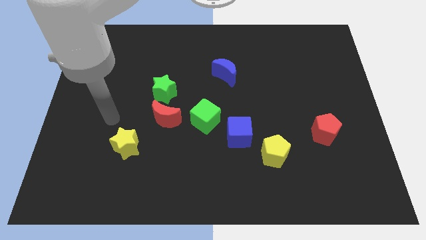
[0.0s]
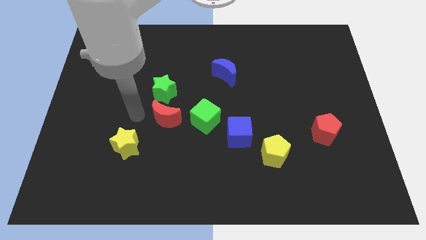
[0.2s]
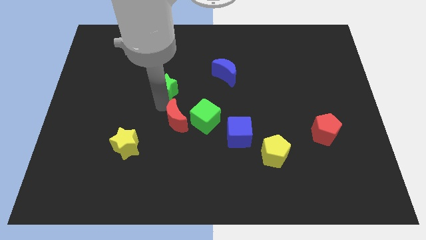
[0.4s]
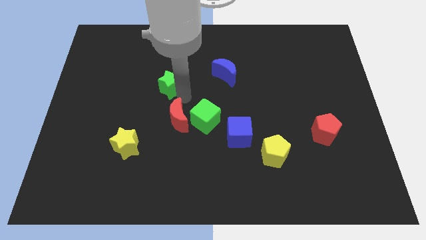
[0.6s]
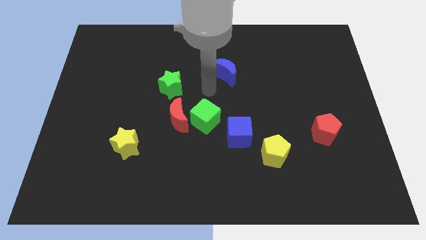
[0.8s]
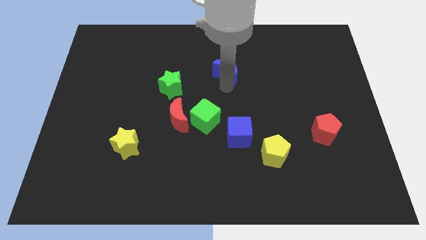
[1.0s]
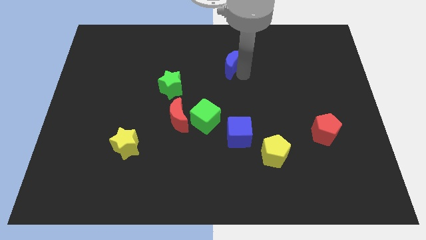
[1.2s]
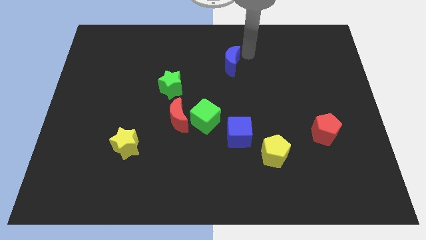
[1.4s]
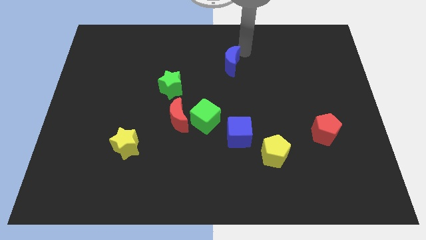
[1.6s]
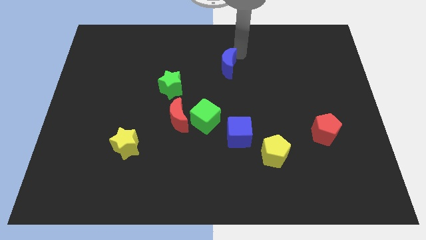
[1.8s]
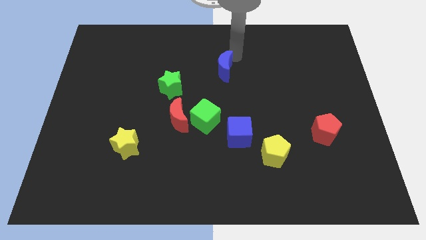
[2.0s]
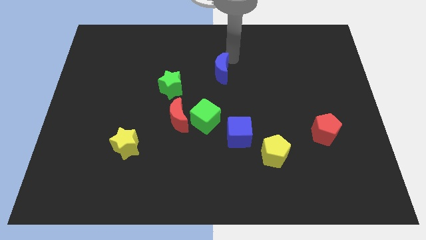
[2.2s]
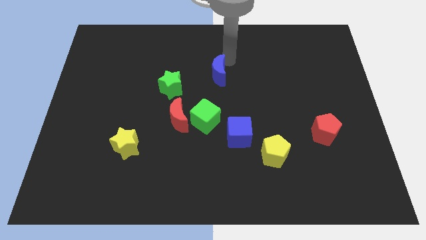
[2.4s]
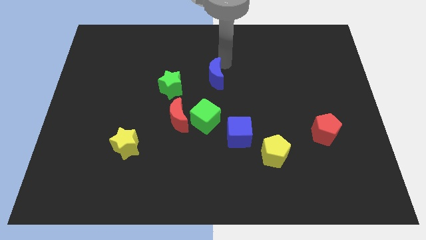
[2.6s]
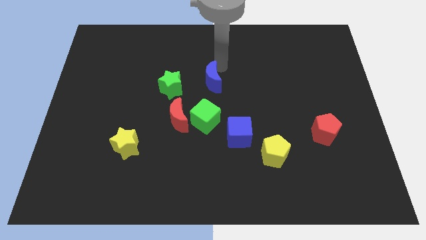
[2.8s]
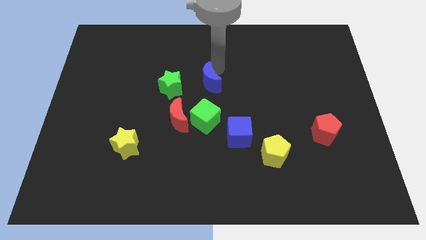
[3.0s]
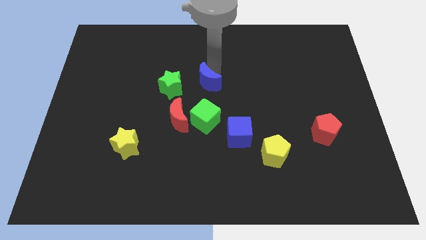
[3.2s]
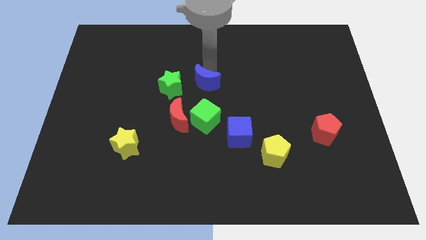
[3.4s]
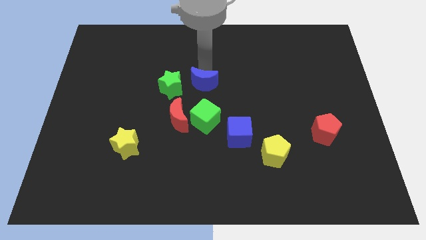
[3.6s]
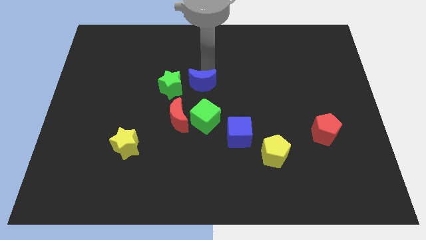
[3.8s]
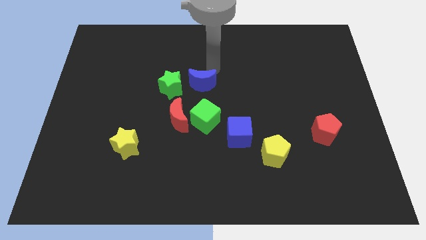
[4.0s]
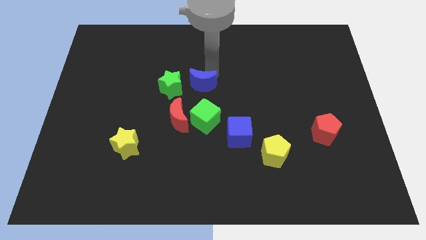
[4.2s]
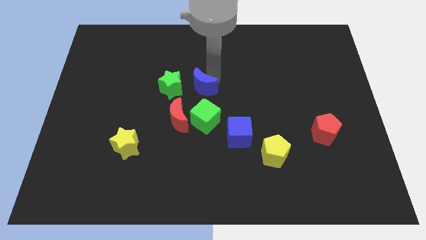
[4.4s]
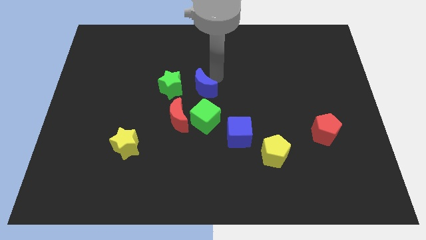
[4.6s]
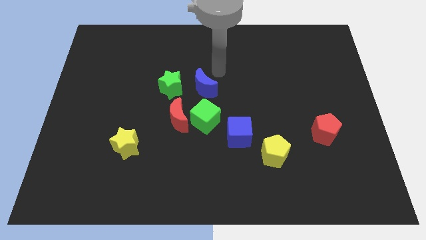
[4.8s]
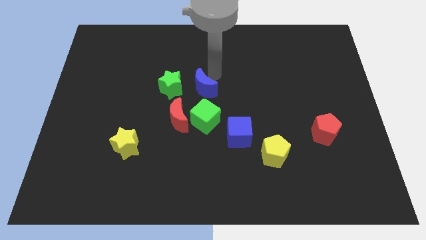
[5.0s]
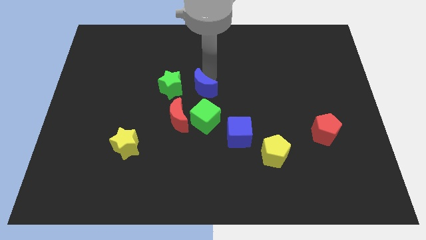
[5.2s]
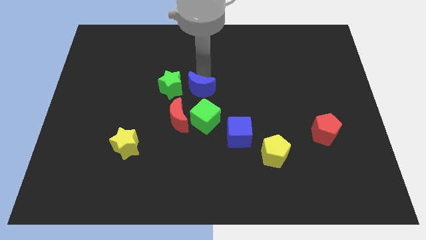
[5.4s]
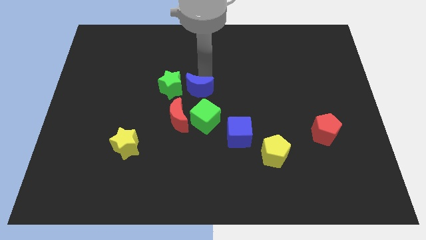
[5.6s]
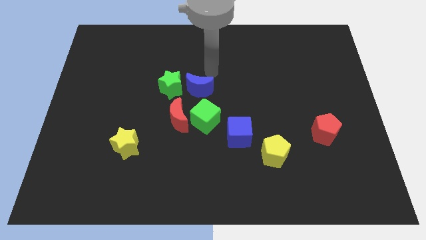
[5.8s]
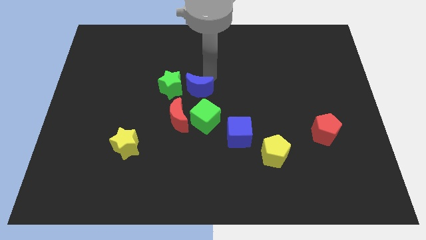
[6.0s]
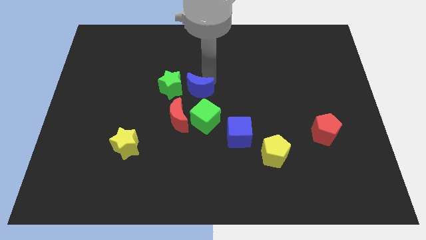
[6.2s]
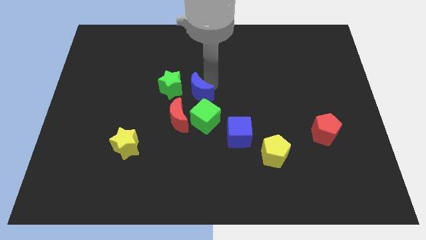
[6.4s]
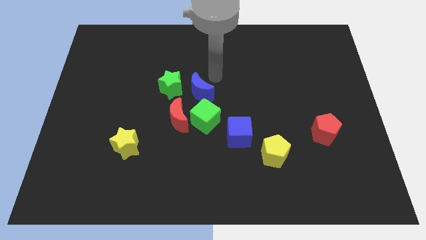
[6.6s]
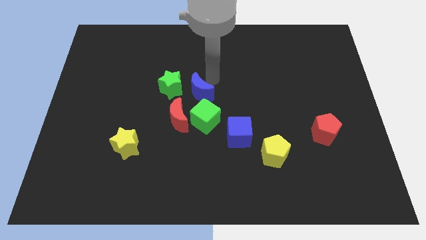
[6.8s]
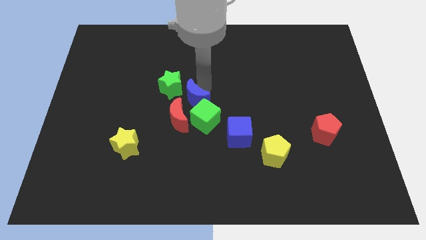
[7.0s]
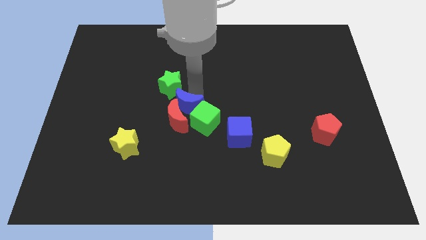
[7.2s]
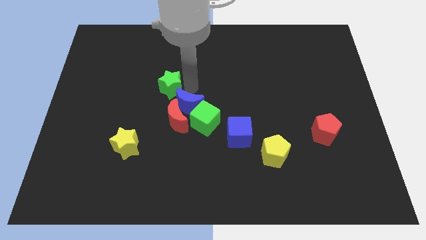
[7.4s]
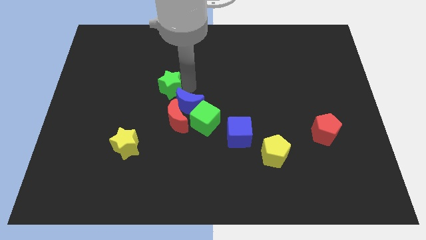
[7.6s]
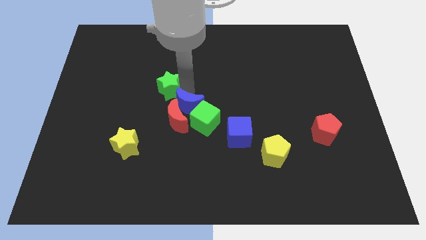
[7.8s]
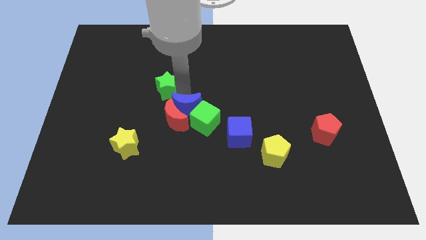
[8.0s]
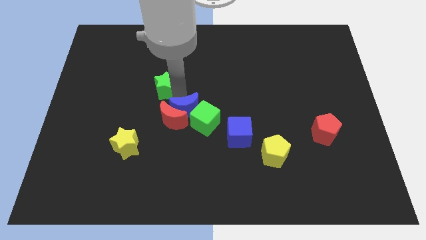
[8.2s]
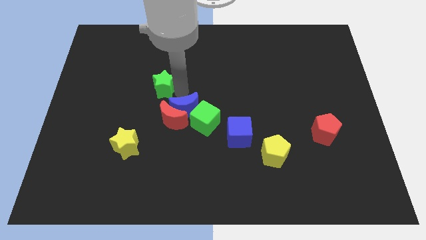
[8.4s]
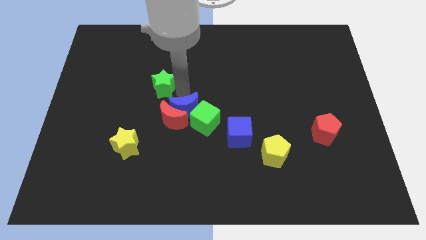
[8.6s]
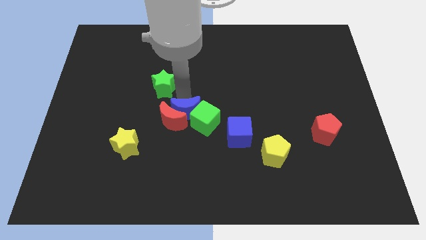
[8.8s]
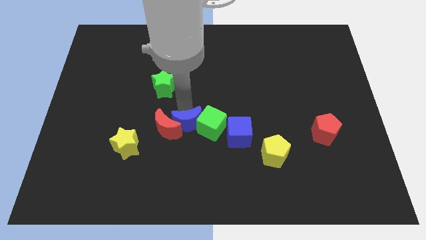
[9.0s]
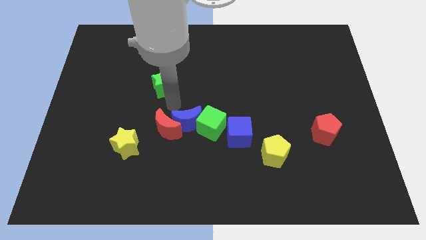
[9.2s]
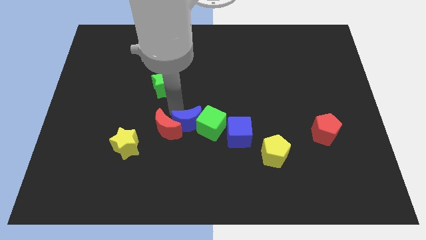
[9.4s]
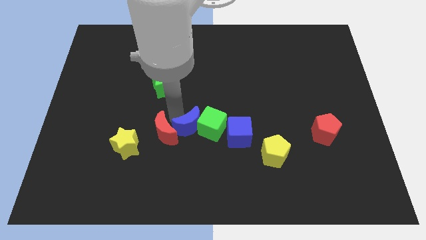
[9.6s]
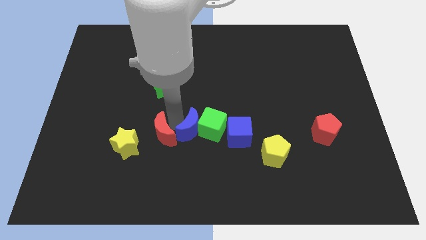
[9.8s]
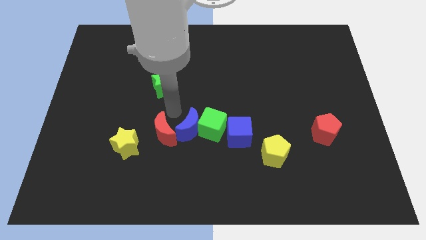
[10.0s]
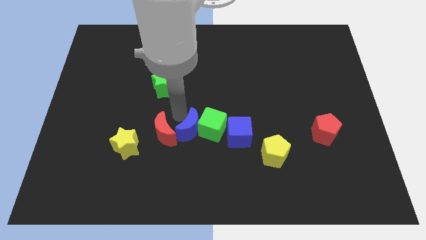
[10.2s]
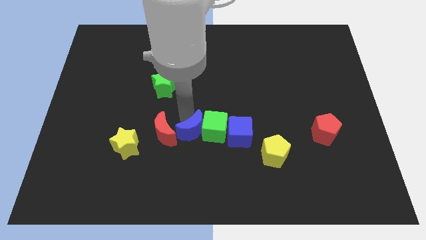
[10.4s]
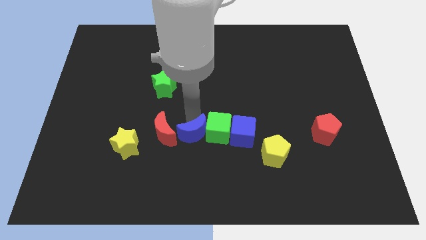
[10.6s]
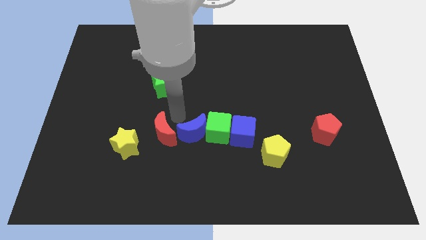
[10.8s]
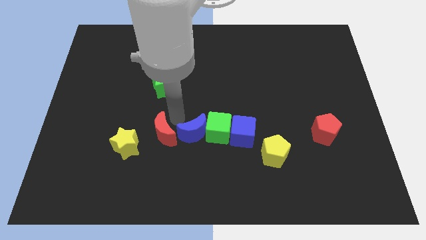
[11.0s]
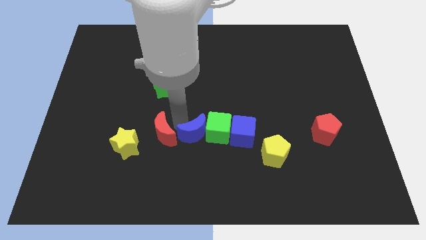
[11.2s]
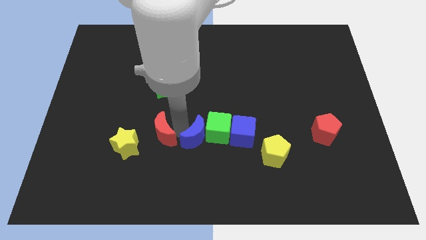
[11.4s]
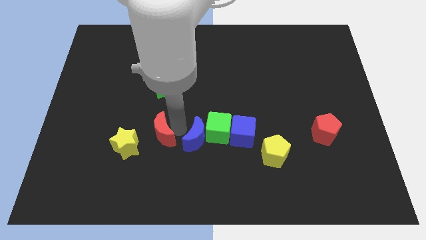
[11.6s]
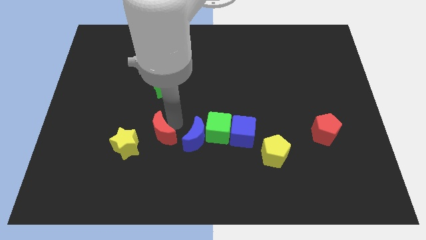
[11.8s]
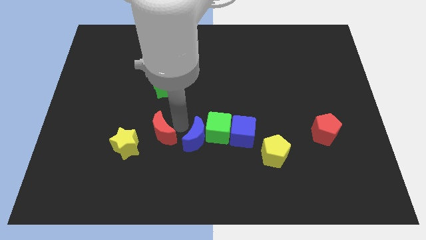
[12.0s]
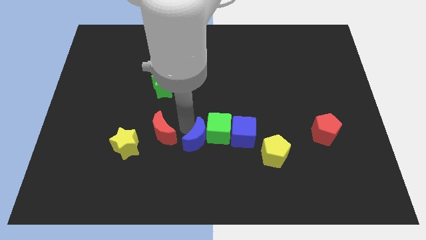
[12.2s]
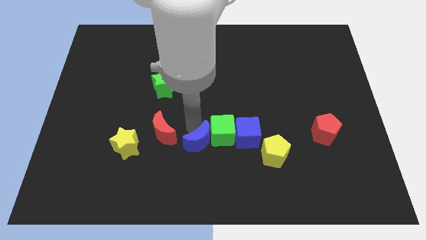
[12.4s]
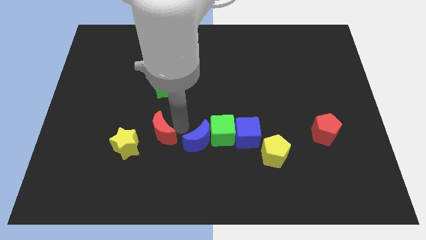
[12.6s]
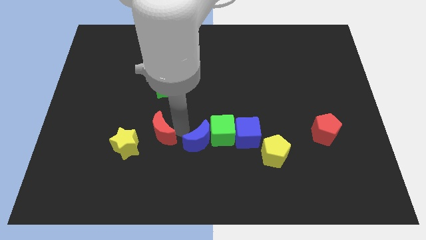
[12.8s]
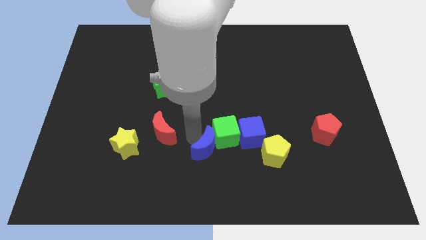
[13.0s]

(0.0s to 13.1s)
move the blue moon to the bottom left side of the blue cube

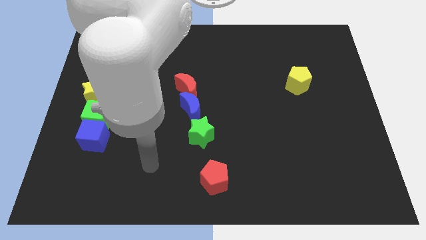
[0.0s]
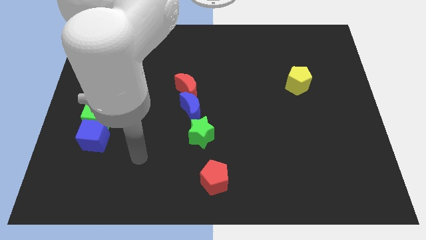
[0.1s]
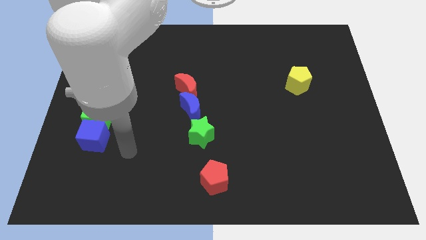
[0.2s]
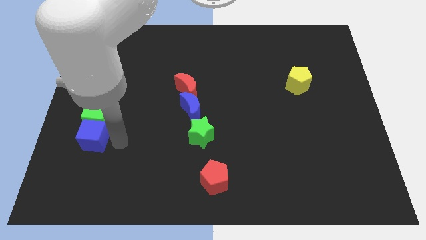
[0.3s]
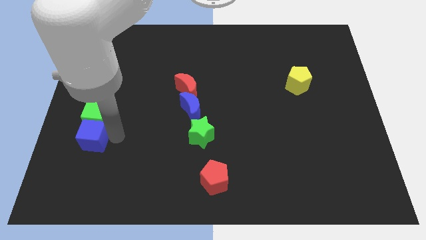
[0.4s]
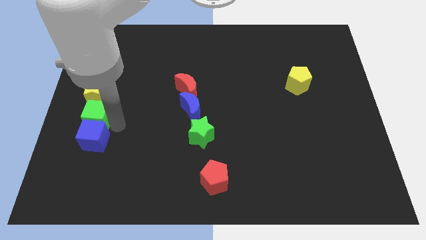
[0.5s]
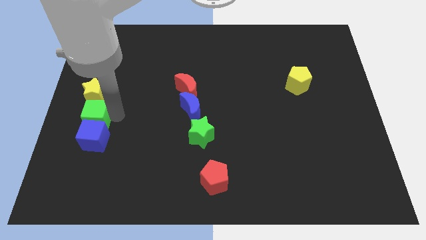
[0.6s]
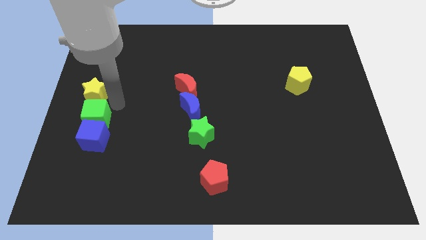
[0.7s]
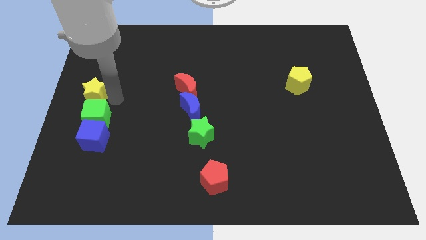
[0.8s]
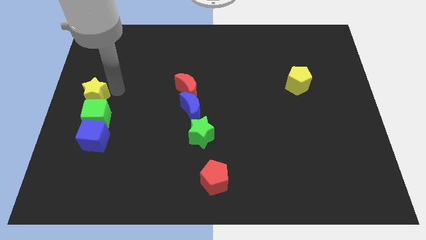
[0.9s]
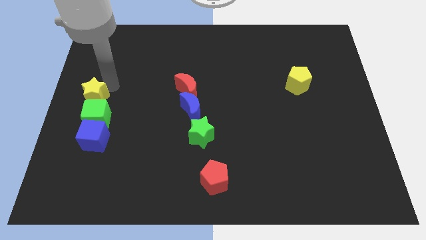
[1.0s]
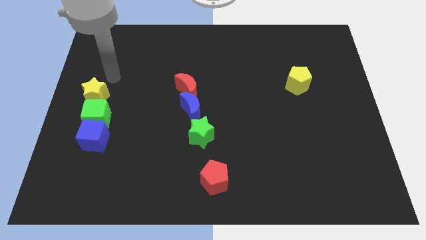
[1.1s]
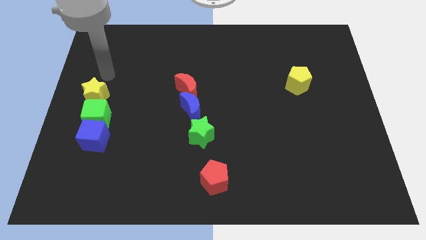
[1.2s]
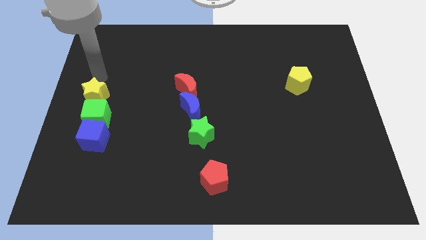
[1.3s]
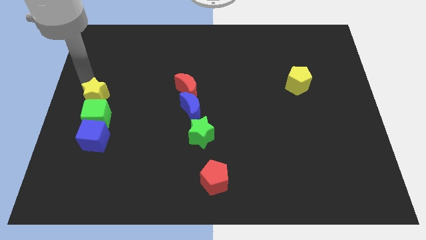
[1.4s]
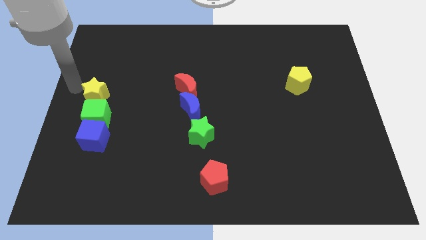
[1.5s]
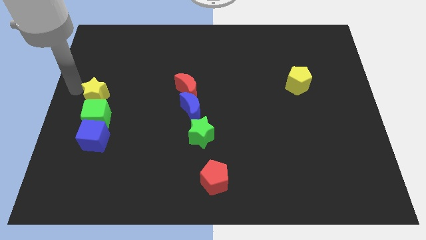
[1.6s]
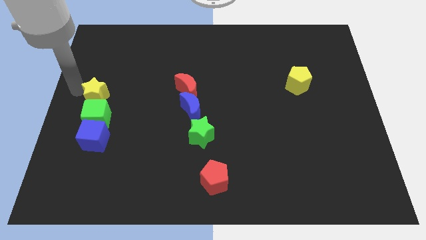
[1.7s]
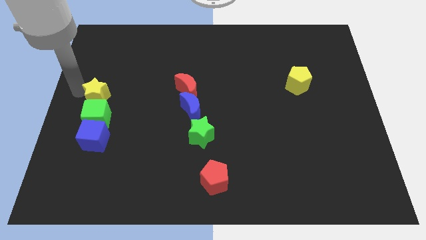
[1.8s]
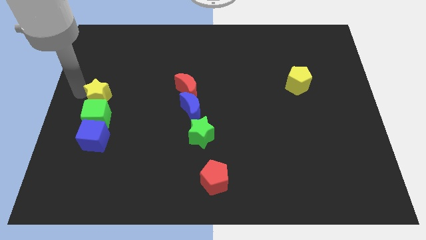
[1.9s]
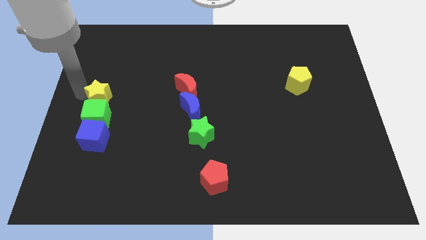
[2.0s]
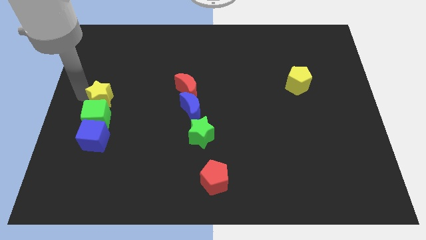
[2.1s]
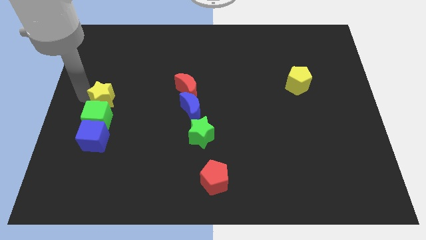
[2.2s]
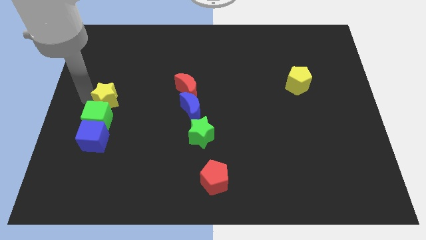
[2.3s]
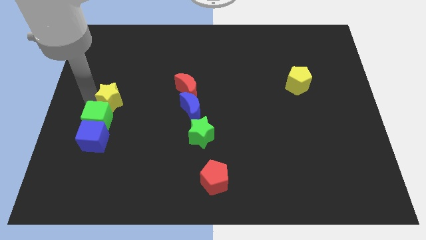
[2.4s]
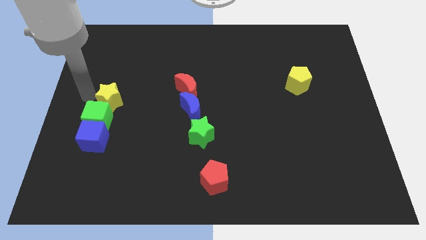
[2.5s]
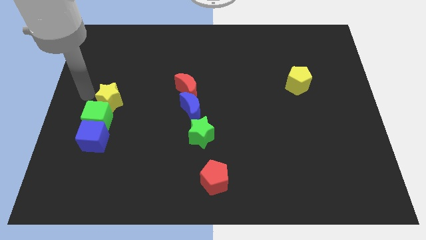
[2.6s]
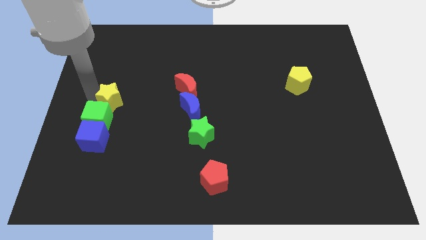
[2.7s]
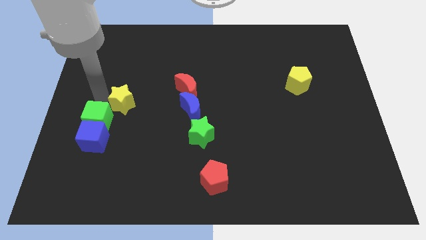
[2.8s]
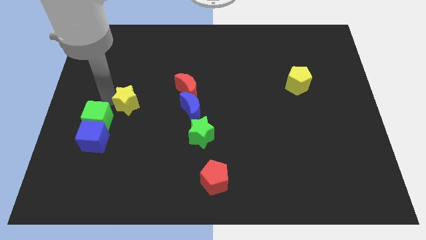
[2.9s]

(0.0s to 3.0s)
move the yellow star to the left side of the blue moon
